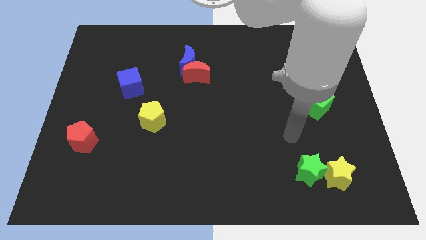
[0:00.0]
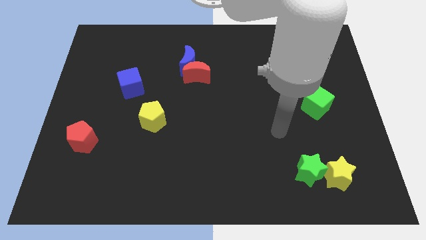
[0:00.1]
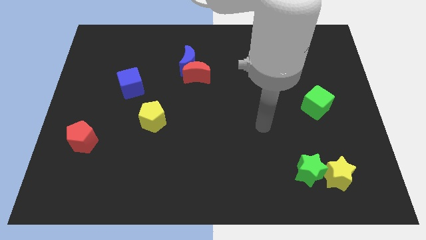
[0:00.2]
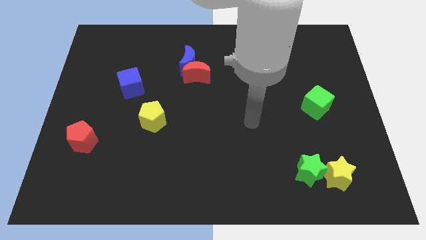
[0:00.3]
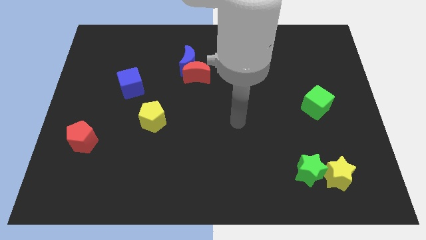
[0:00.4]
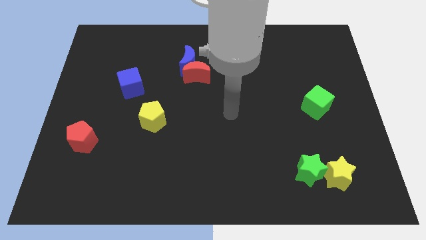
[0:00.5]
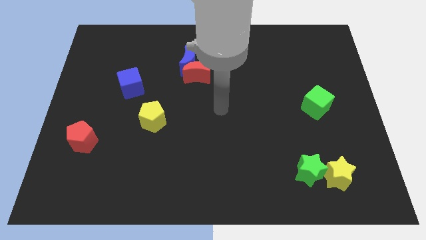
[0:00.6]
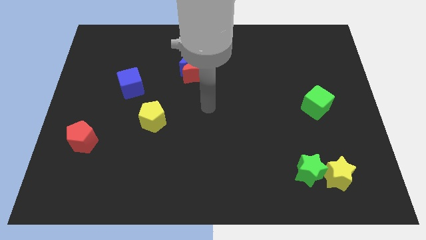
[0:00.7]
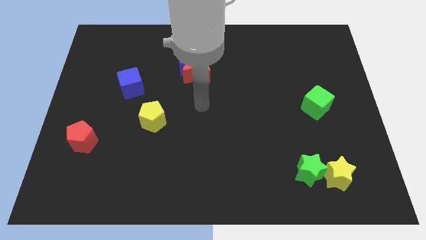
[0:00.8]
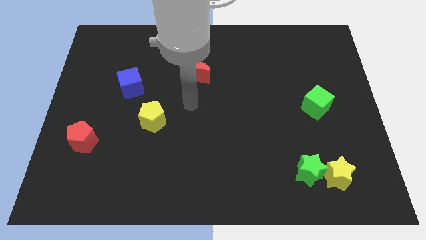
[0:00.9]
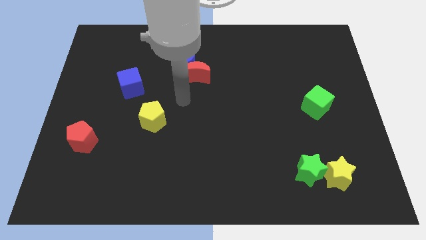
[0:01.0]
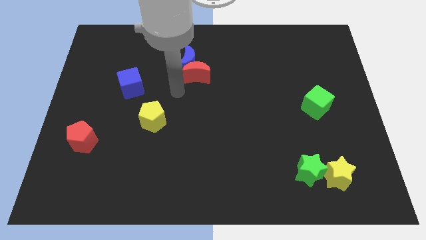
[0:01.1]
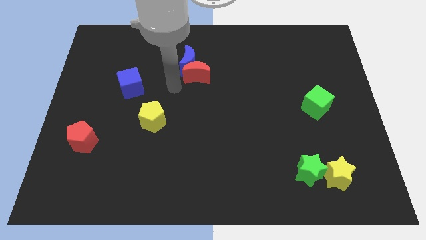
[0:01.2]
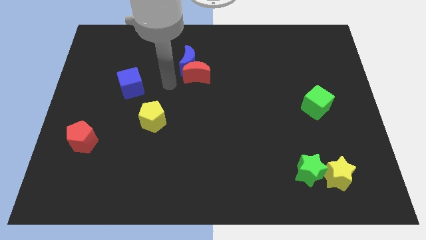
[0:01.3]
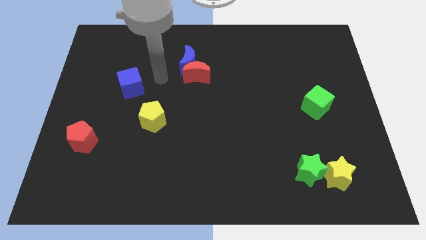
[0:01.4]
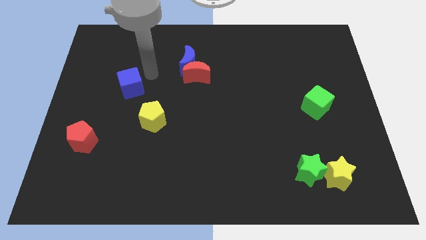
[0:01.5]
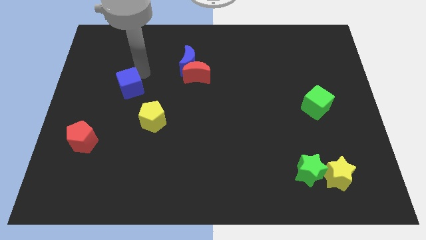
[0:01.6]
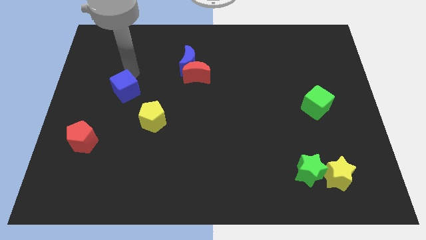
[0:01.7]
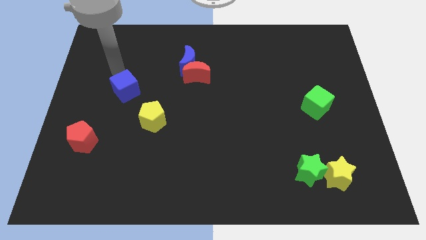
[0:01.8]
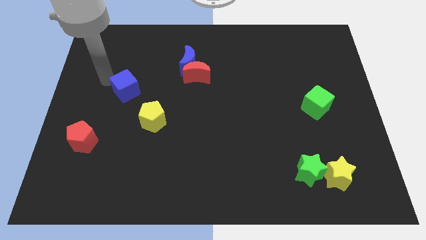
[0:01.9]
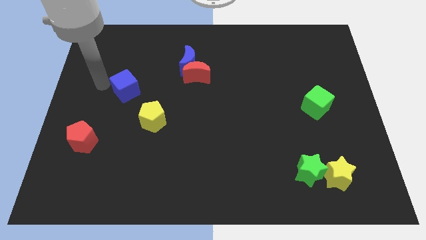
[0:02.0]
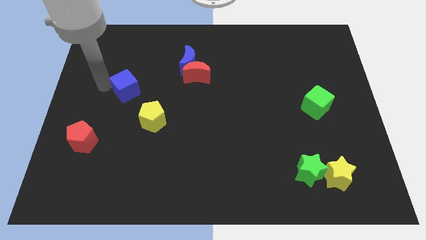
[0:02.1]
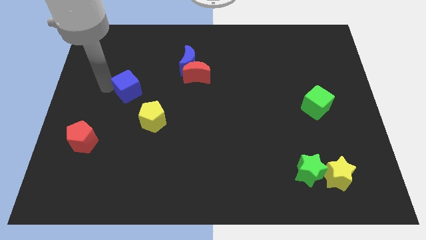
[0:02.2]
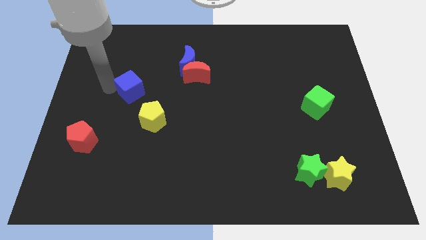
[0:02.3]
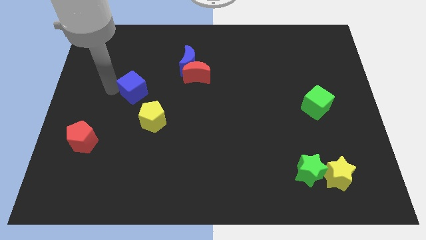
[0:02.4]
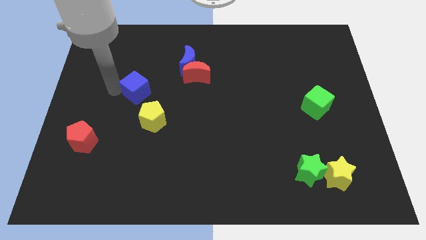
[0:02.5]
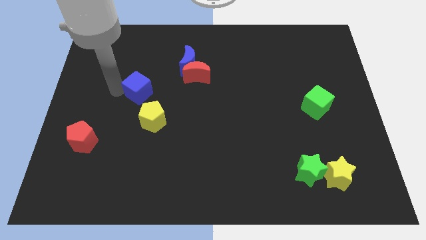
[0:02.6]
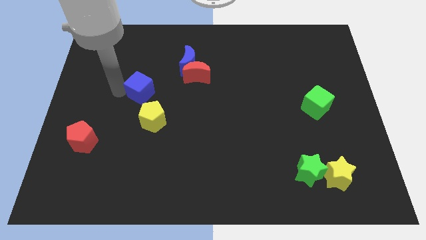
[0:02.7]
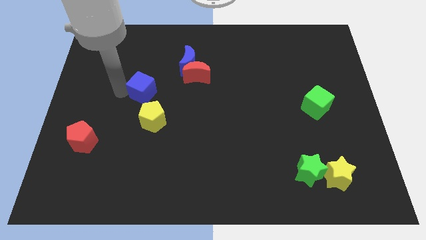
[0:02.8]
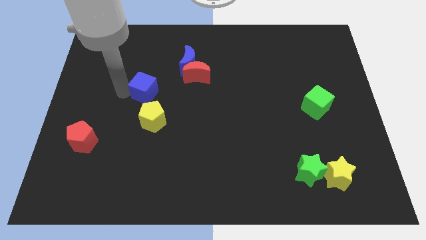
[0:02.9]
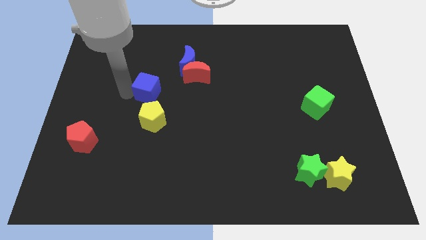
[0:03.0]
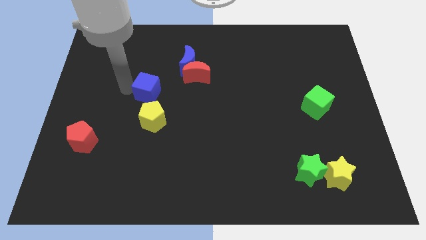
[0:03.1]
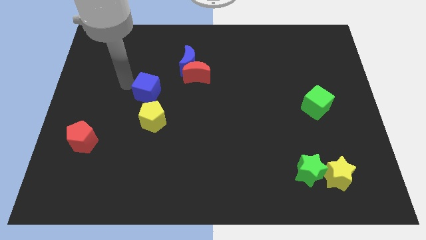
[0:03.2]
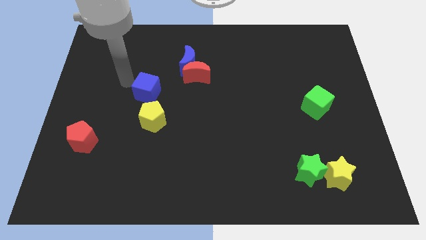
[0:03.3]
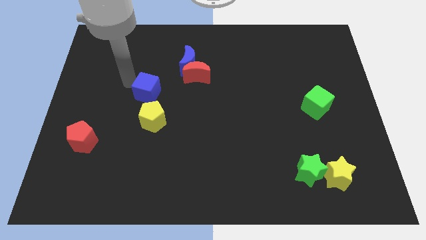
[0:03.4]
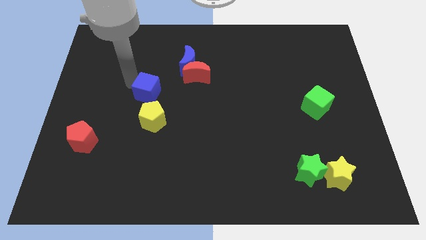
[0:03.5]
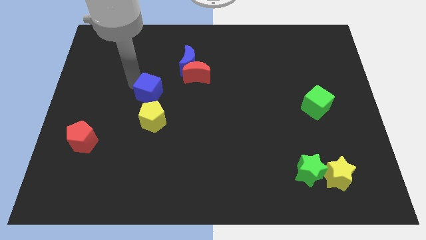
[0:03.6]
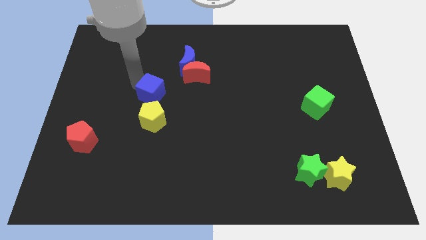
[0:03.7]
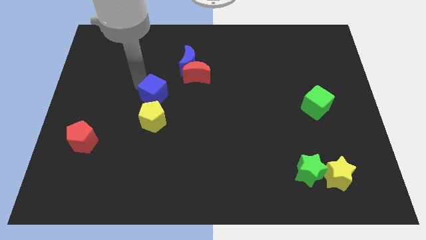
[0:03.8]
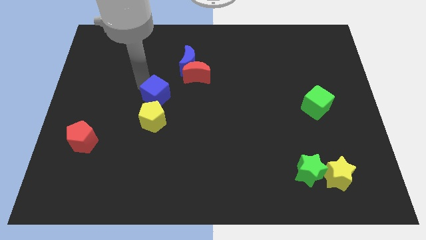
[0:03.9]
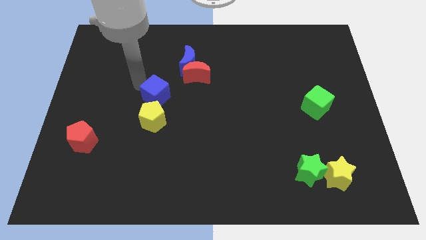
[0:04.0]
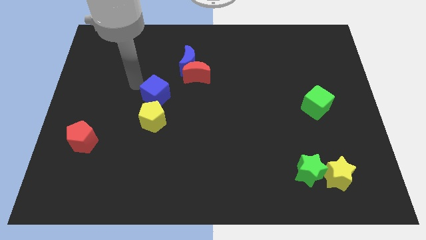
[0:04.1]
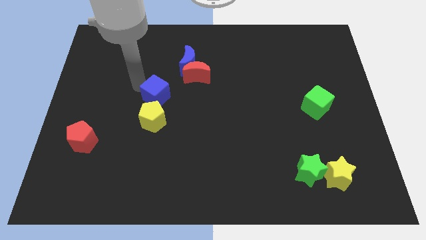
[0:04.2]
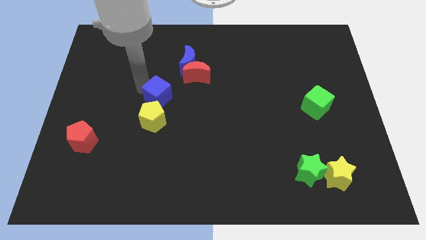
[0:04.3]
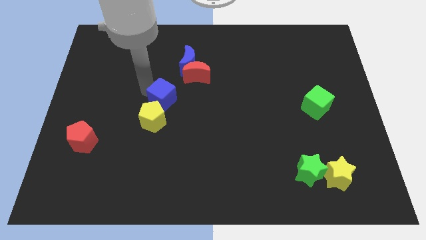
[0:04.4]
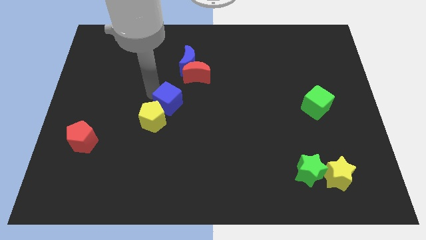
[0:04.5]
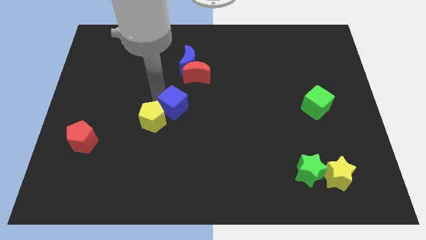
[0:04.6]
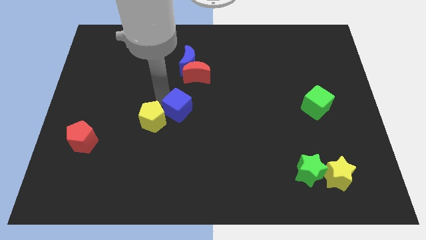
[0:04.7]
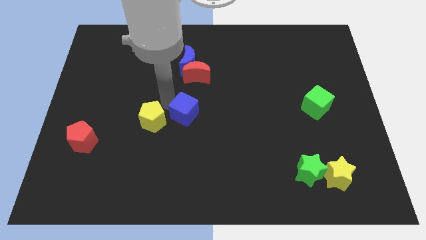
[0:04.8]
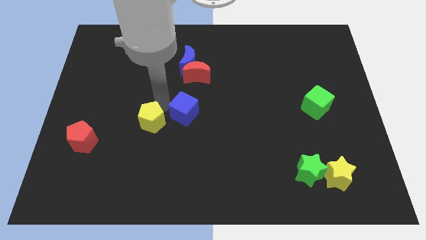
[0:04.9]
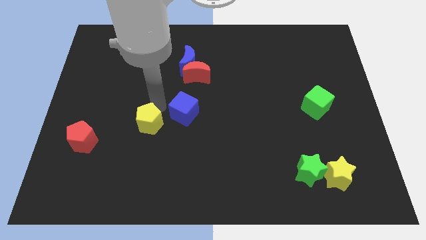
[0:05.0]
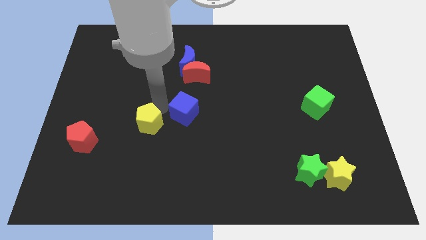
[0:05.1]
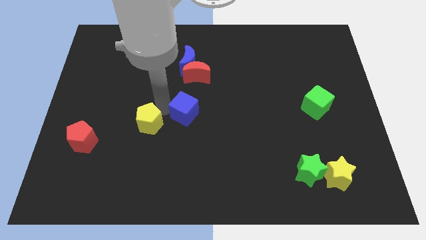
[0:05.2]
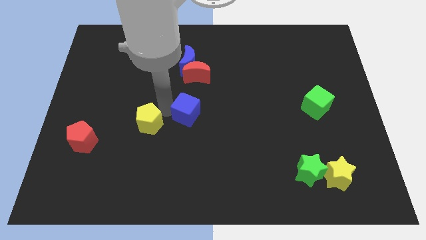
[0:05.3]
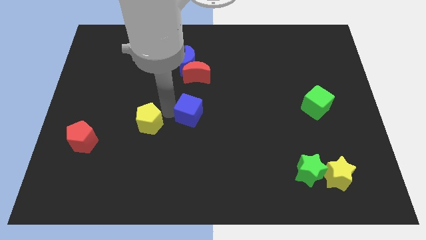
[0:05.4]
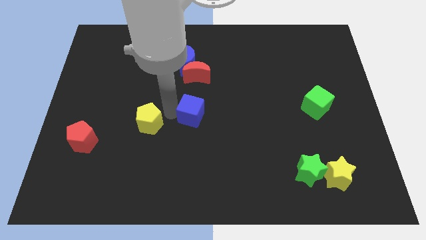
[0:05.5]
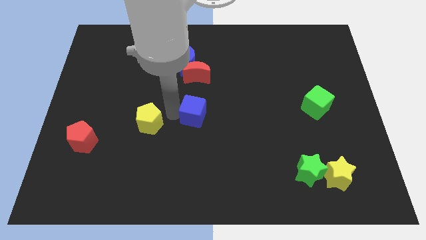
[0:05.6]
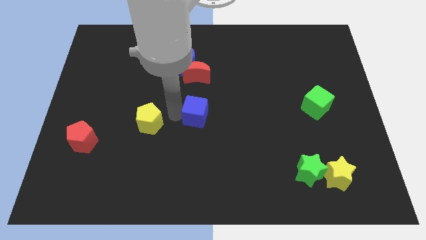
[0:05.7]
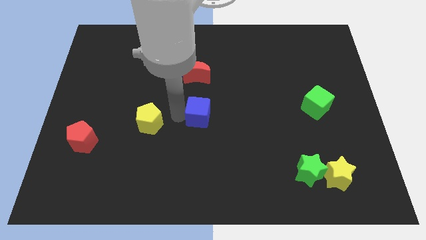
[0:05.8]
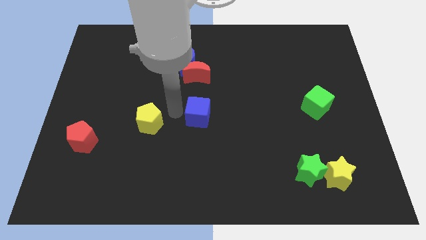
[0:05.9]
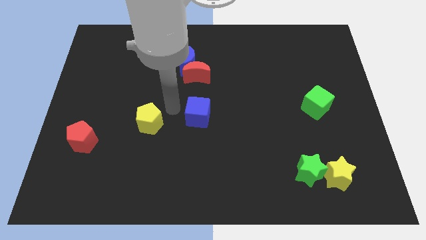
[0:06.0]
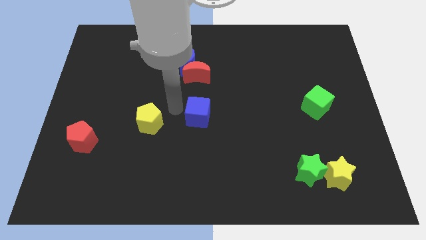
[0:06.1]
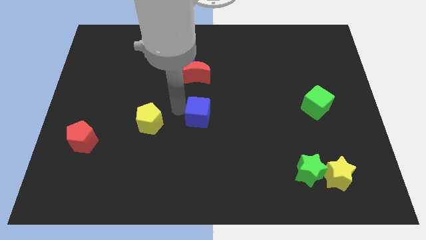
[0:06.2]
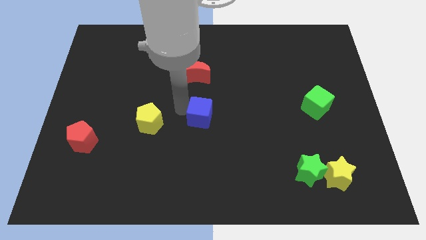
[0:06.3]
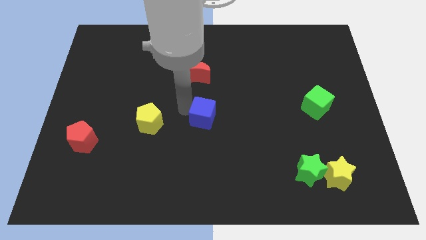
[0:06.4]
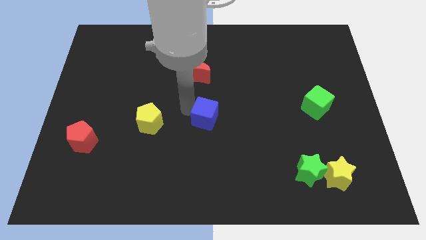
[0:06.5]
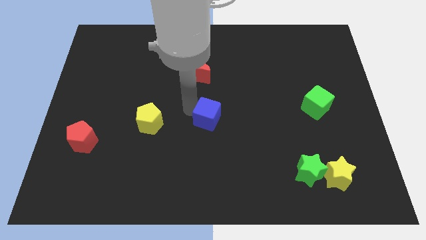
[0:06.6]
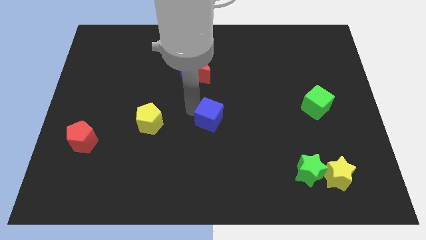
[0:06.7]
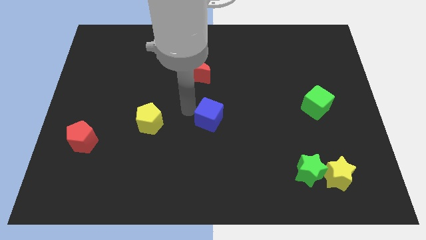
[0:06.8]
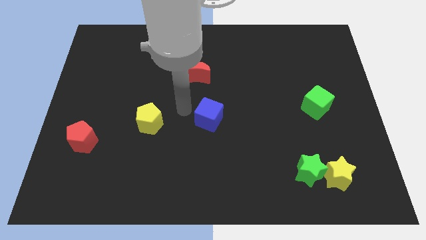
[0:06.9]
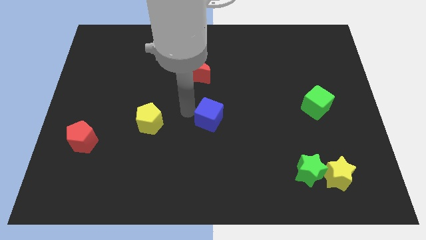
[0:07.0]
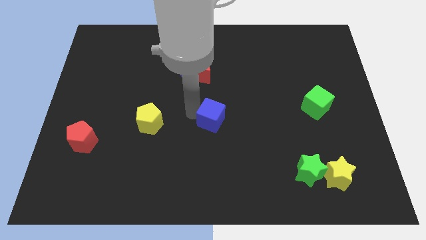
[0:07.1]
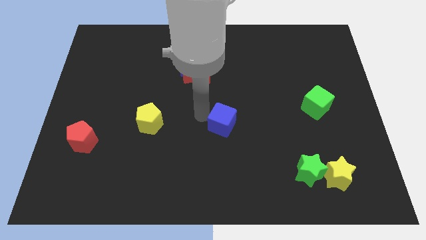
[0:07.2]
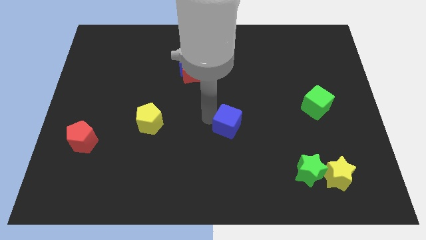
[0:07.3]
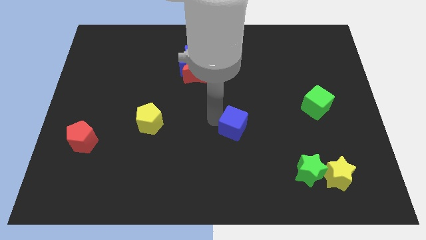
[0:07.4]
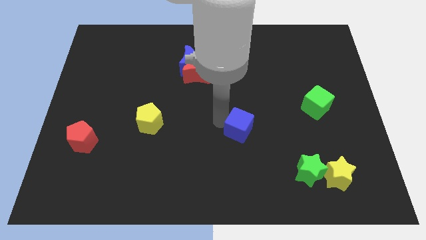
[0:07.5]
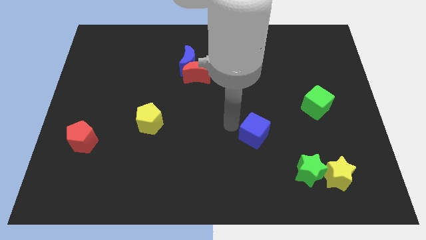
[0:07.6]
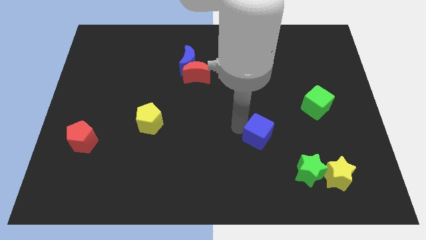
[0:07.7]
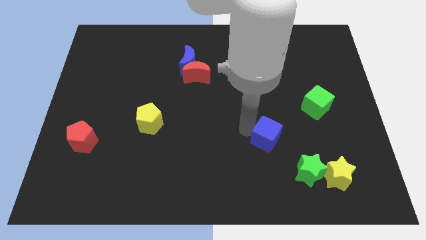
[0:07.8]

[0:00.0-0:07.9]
put the blue cube to the top left side of the green star
